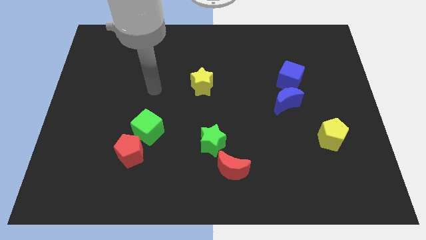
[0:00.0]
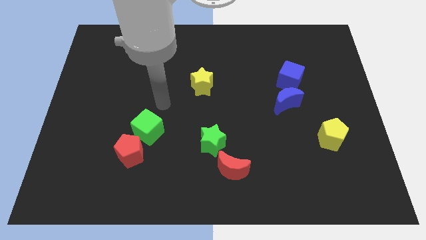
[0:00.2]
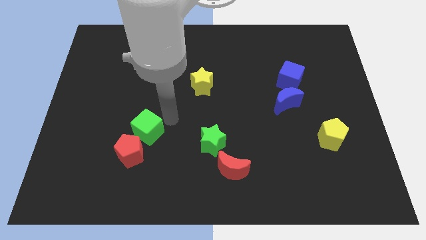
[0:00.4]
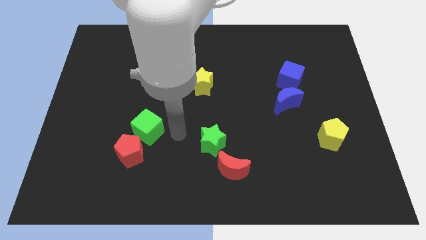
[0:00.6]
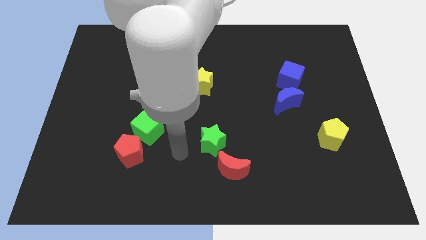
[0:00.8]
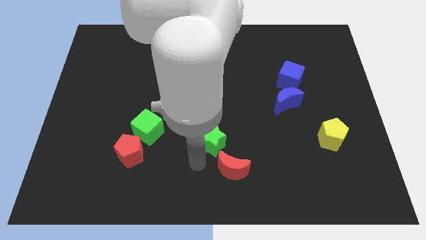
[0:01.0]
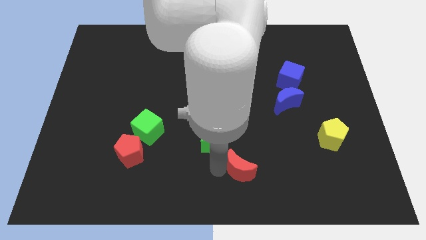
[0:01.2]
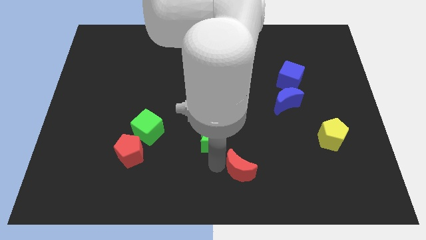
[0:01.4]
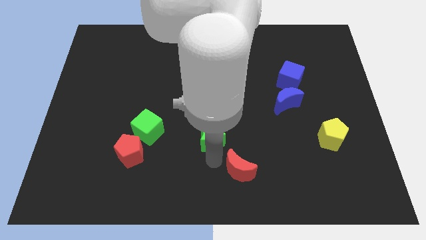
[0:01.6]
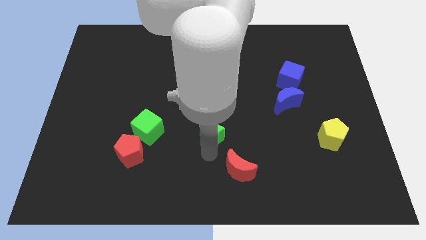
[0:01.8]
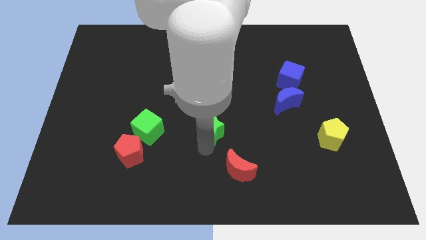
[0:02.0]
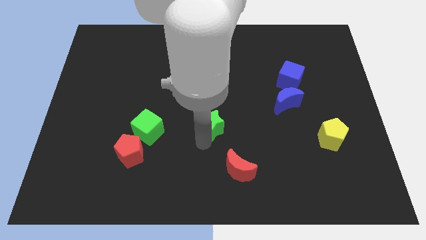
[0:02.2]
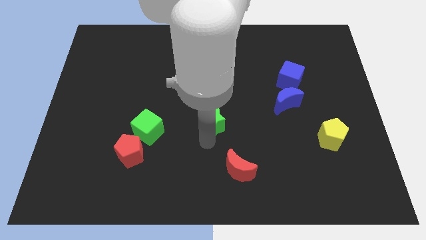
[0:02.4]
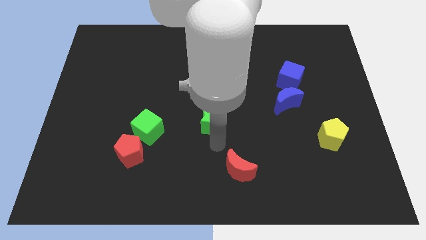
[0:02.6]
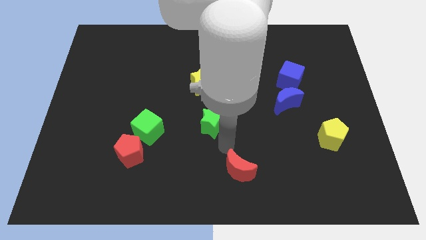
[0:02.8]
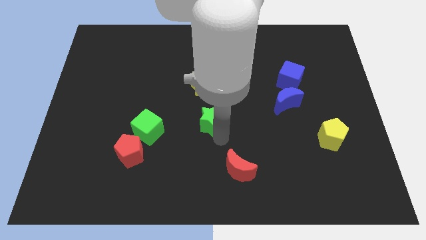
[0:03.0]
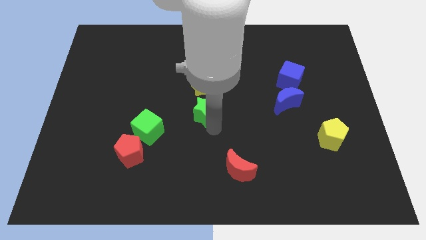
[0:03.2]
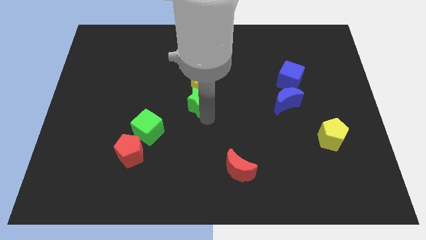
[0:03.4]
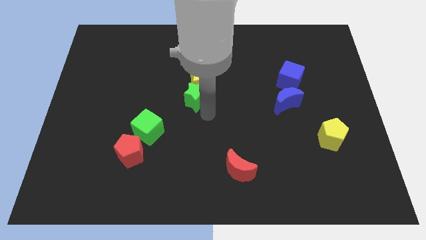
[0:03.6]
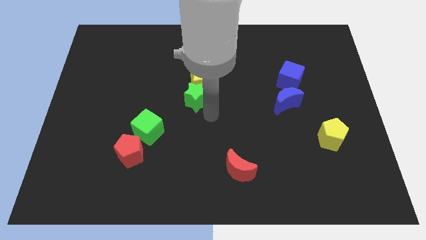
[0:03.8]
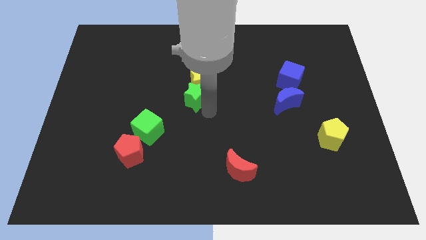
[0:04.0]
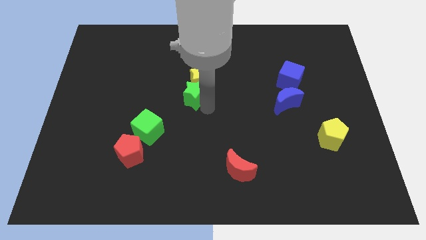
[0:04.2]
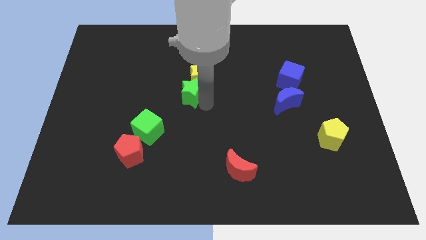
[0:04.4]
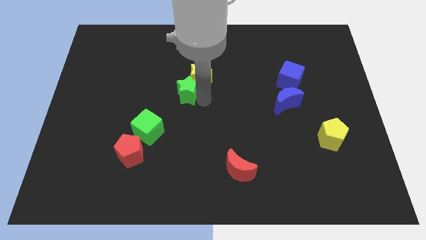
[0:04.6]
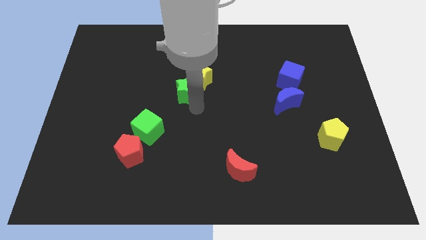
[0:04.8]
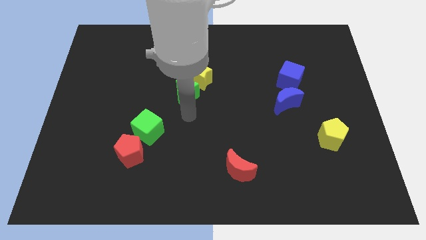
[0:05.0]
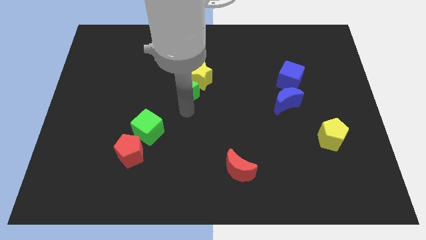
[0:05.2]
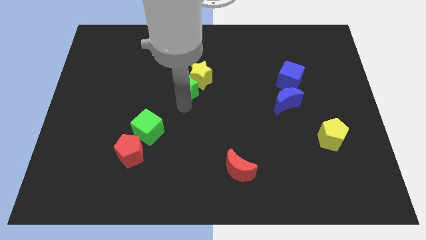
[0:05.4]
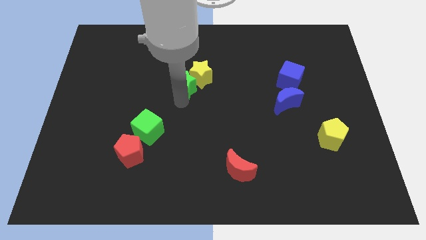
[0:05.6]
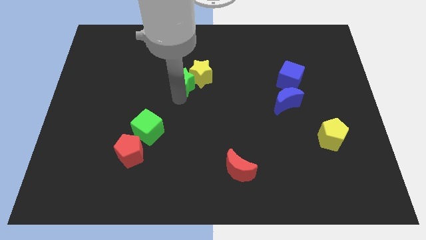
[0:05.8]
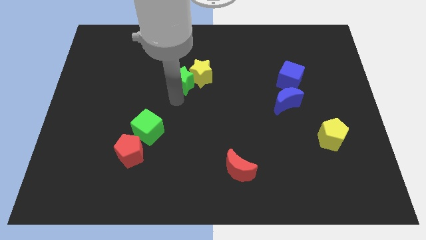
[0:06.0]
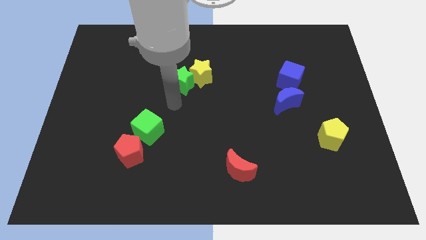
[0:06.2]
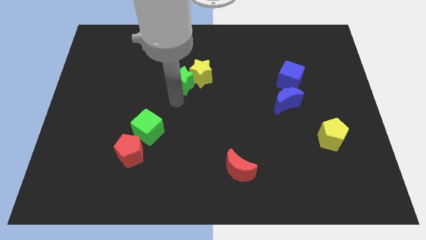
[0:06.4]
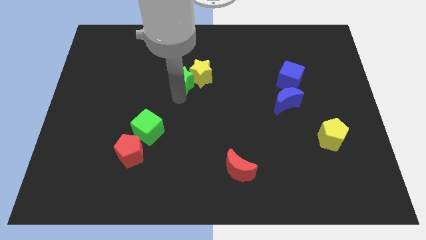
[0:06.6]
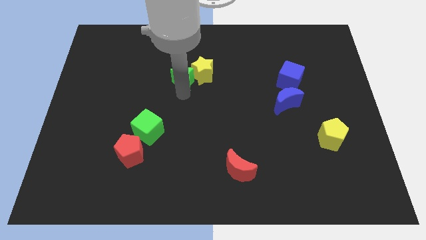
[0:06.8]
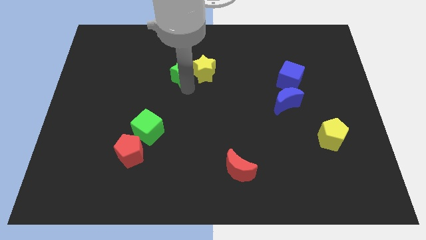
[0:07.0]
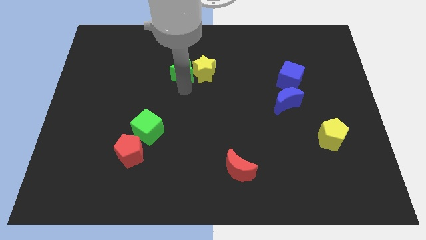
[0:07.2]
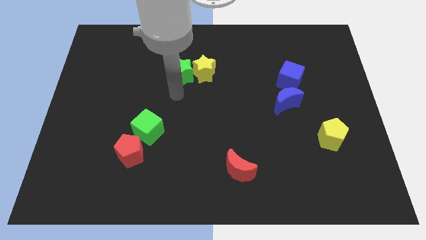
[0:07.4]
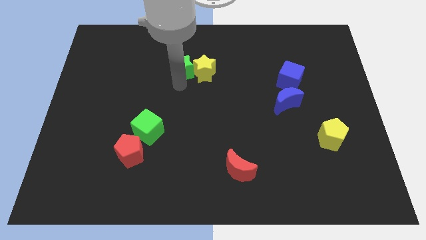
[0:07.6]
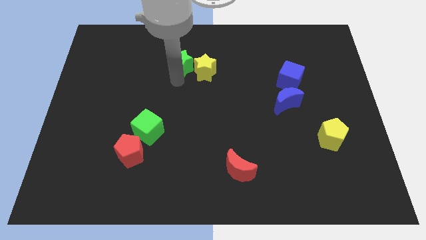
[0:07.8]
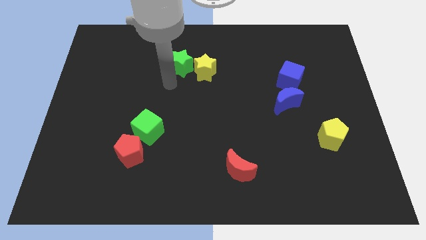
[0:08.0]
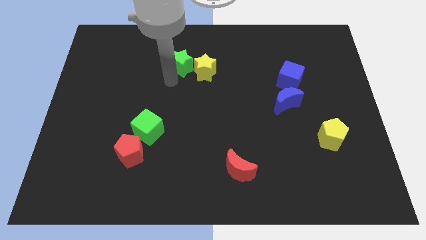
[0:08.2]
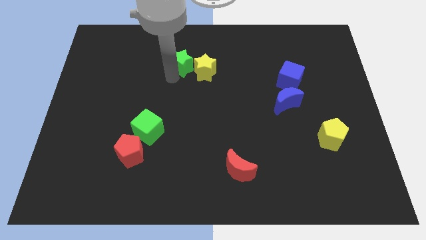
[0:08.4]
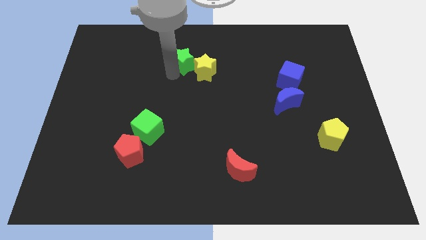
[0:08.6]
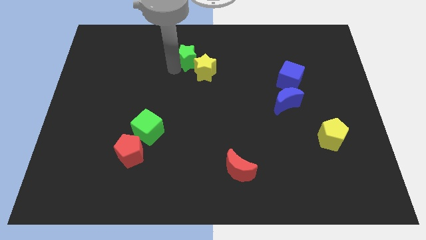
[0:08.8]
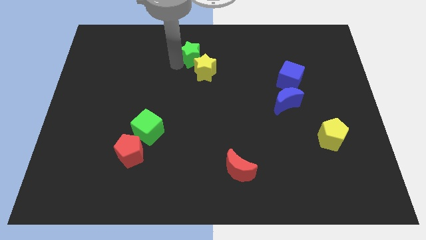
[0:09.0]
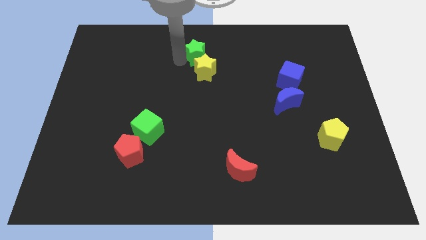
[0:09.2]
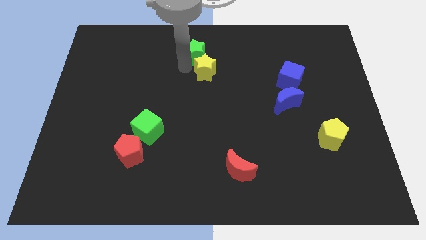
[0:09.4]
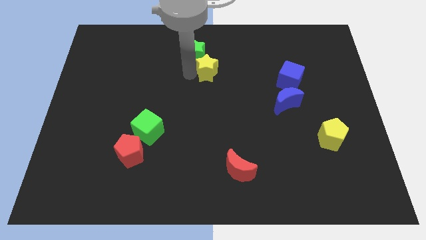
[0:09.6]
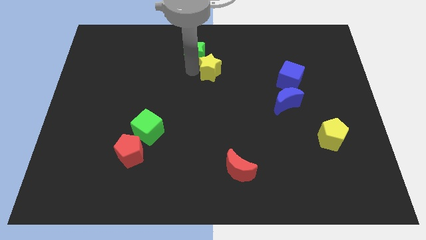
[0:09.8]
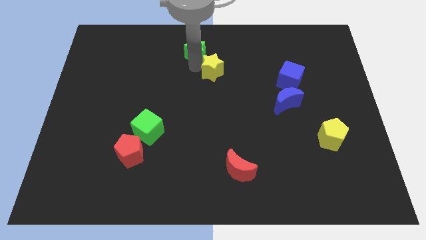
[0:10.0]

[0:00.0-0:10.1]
push the green star to the top

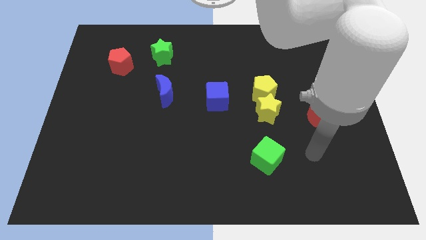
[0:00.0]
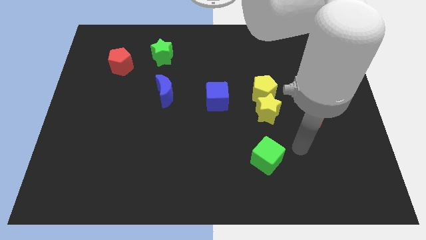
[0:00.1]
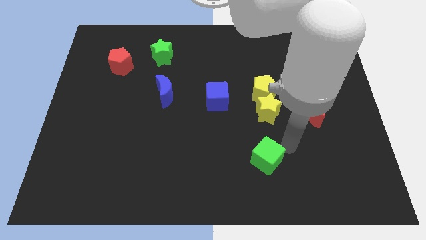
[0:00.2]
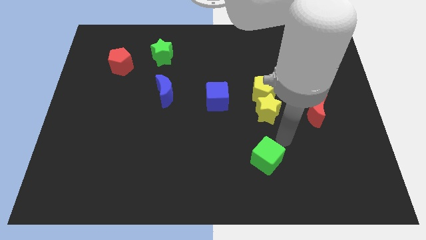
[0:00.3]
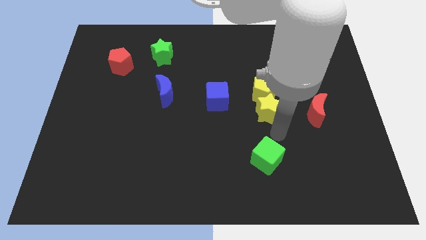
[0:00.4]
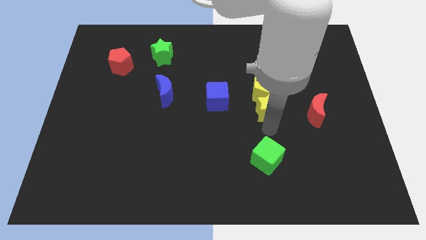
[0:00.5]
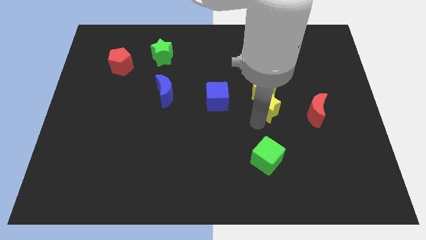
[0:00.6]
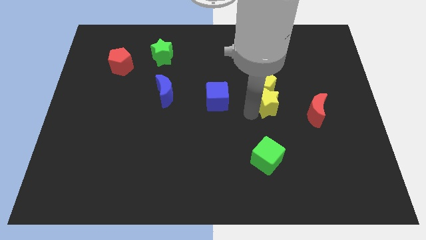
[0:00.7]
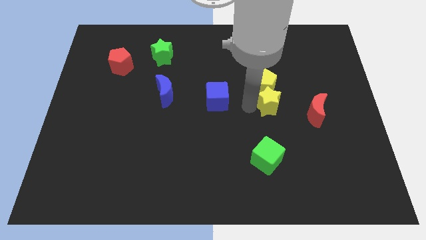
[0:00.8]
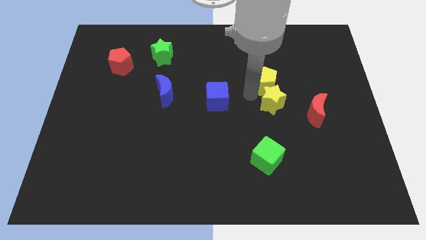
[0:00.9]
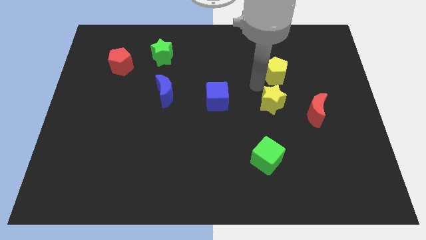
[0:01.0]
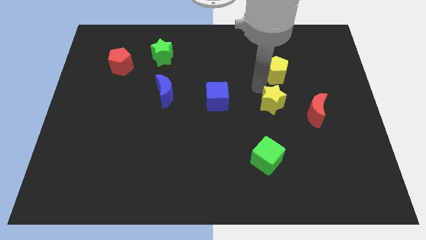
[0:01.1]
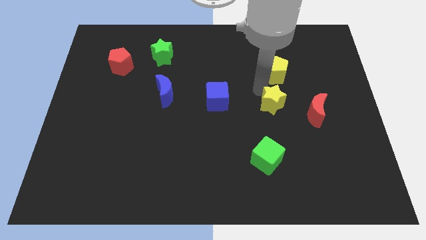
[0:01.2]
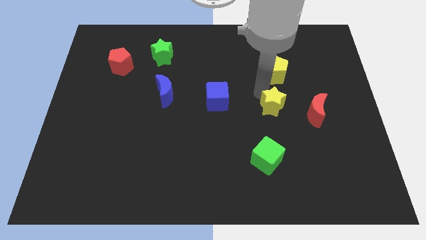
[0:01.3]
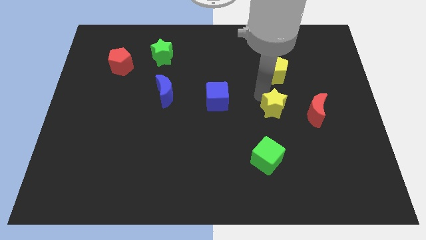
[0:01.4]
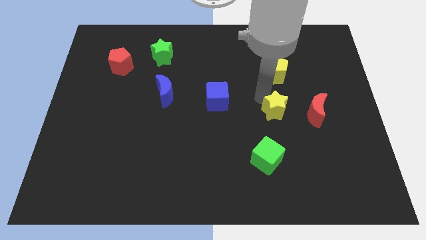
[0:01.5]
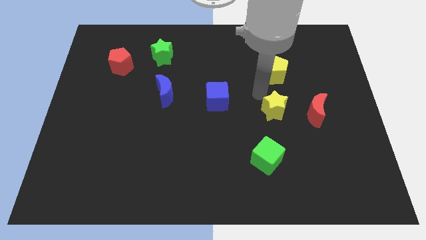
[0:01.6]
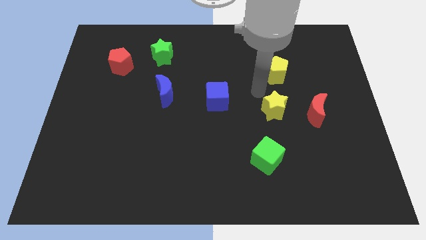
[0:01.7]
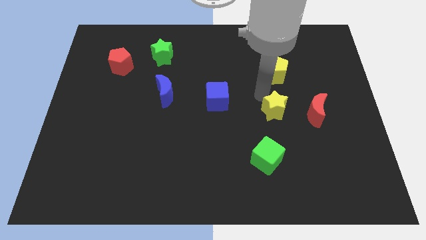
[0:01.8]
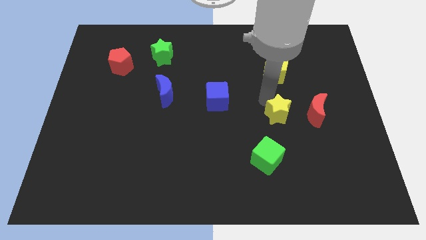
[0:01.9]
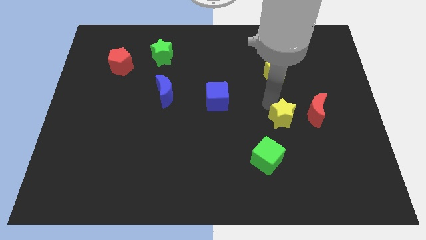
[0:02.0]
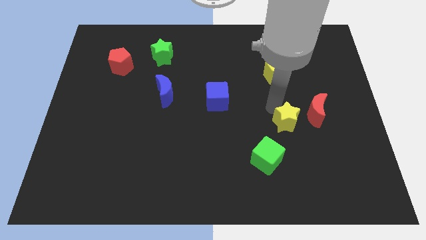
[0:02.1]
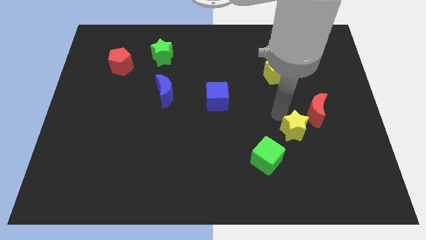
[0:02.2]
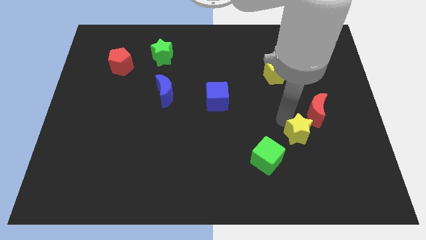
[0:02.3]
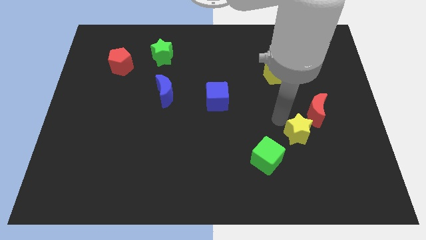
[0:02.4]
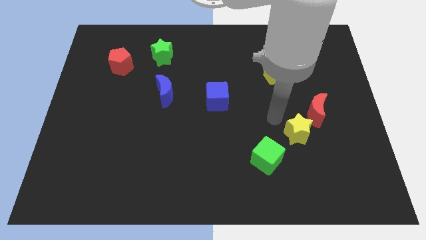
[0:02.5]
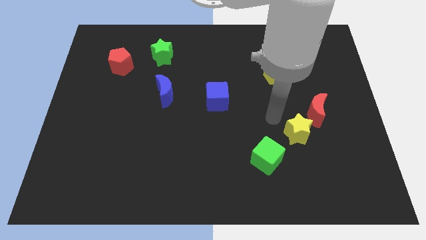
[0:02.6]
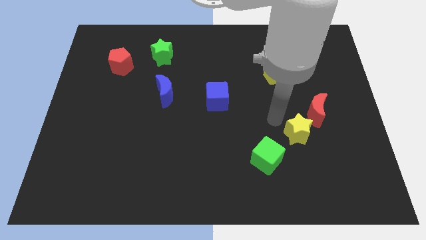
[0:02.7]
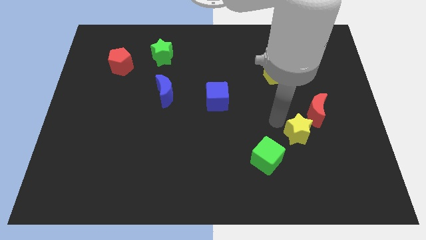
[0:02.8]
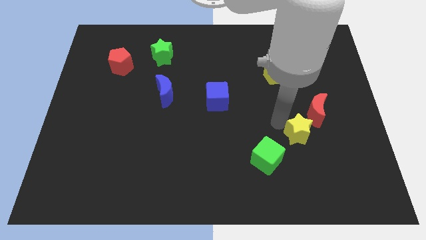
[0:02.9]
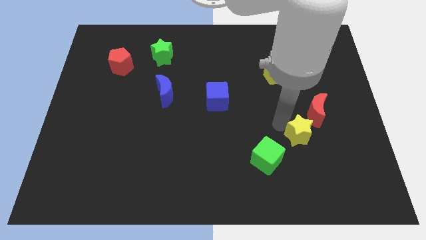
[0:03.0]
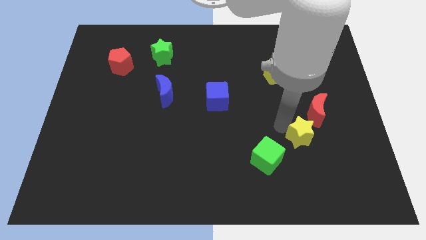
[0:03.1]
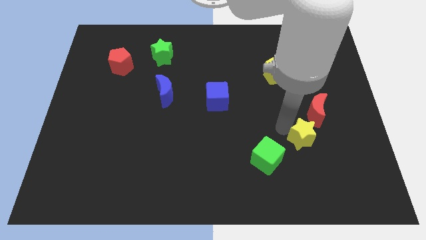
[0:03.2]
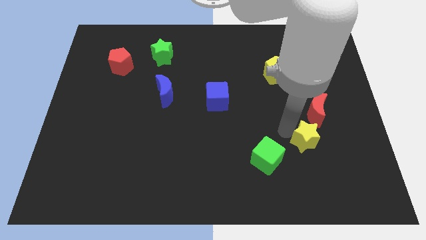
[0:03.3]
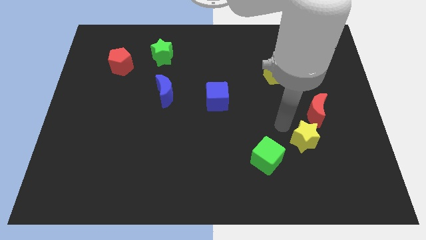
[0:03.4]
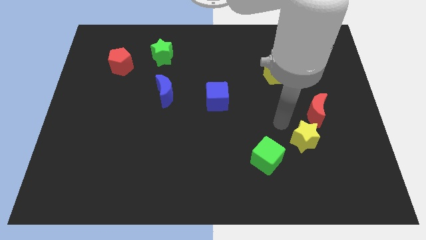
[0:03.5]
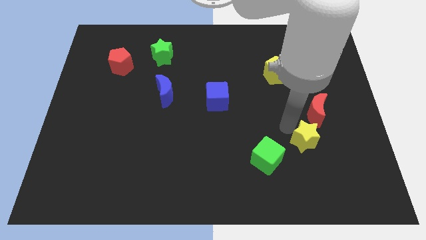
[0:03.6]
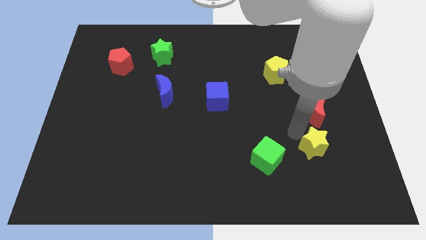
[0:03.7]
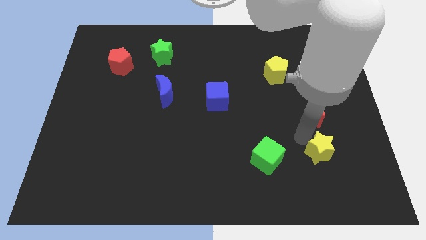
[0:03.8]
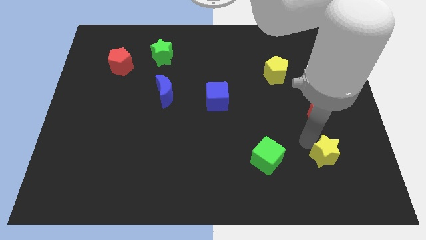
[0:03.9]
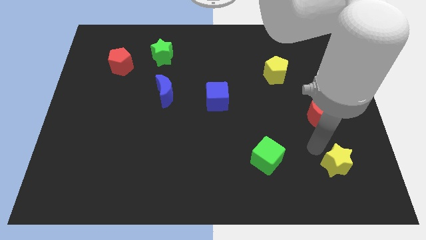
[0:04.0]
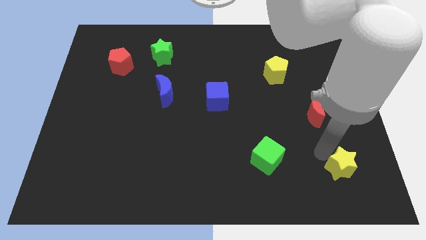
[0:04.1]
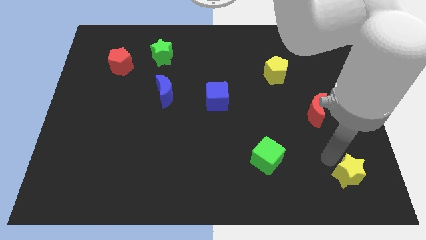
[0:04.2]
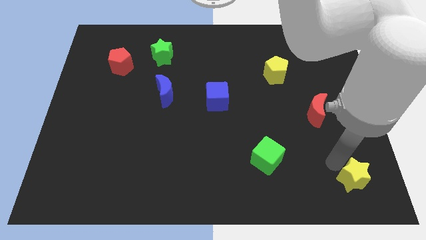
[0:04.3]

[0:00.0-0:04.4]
push the yellow star to the bottom right
